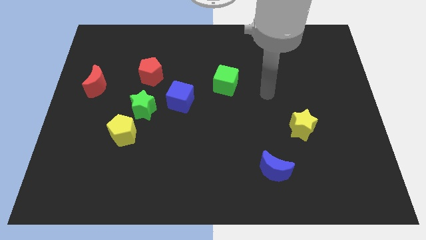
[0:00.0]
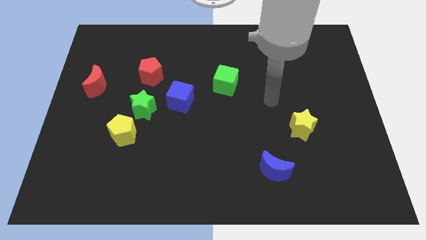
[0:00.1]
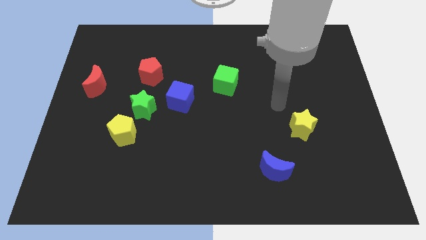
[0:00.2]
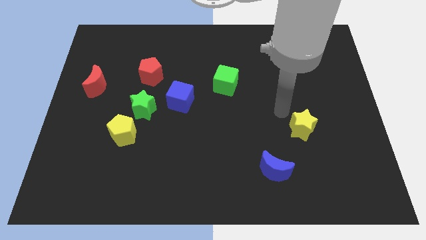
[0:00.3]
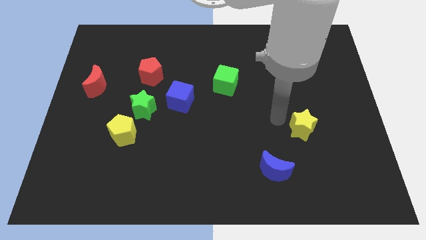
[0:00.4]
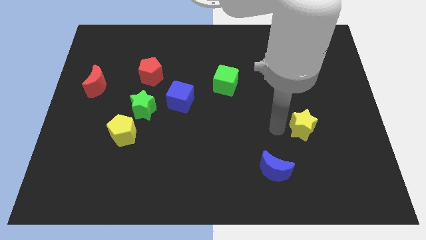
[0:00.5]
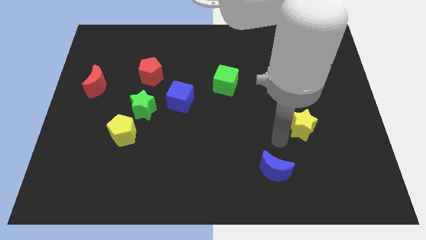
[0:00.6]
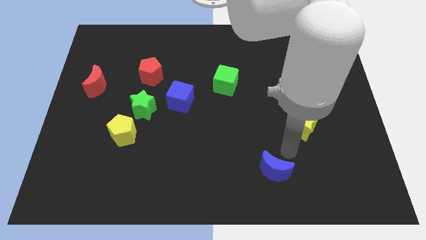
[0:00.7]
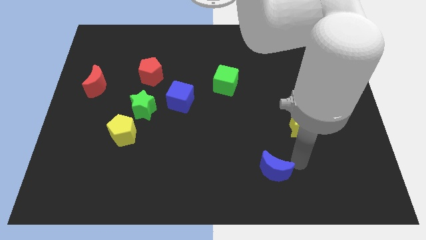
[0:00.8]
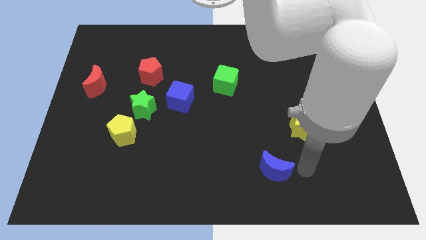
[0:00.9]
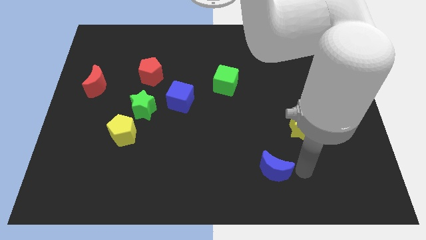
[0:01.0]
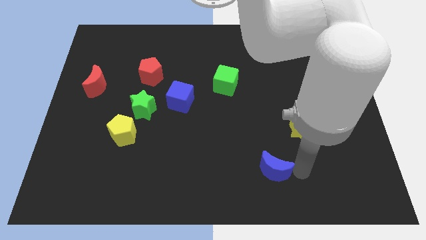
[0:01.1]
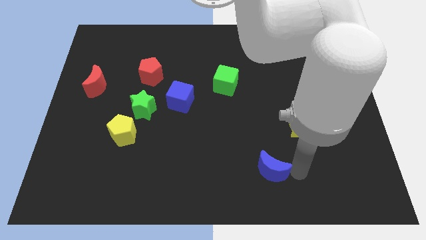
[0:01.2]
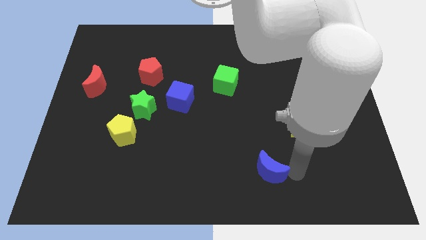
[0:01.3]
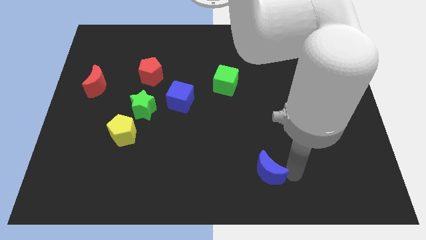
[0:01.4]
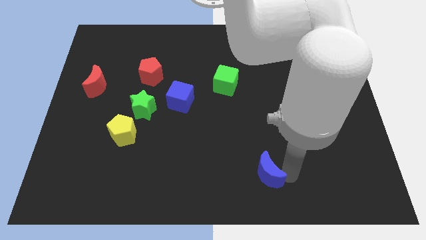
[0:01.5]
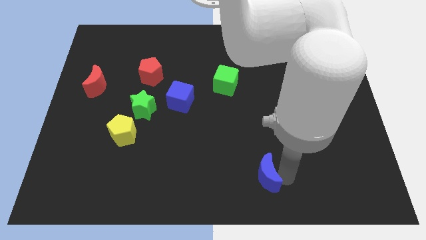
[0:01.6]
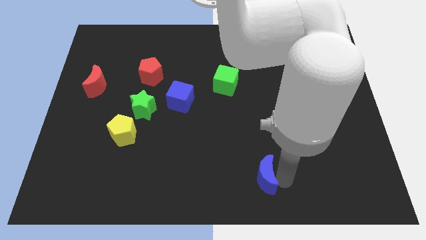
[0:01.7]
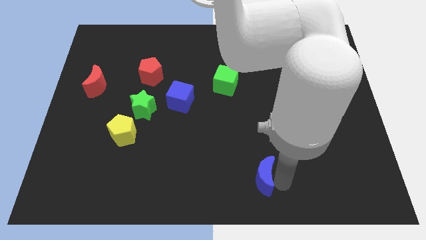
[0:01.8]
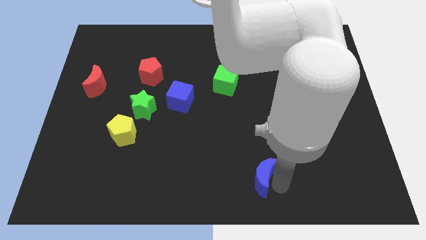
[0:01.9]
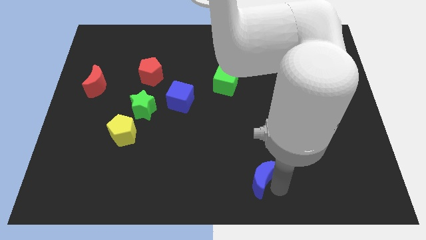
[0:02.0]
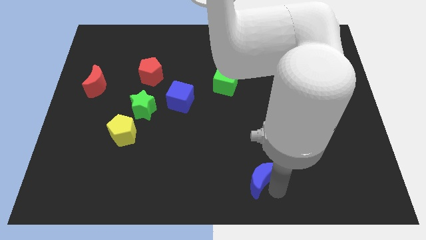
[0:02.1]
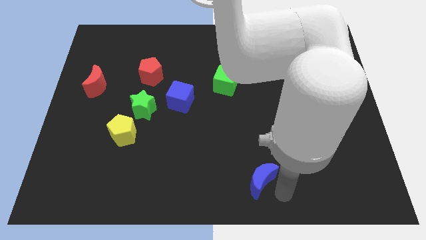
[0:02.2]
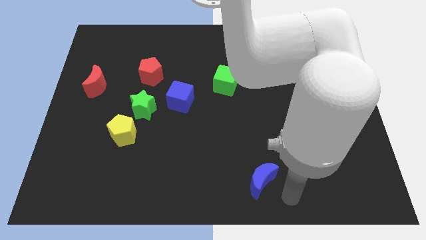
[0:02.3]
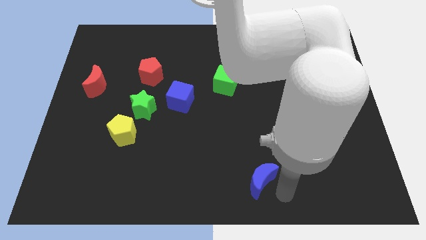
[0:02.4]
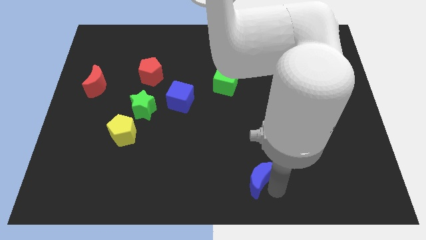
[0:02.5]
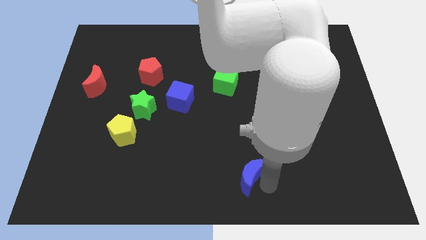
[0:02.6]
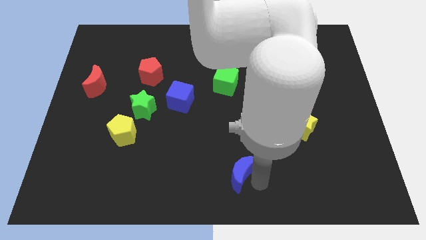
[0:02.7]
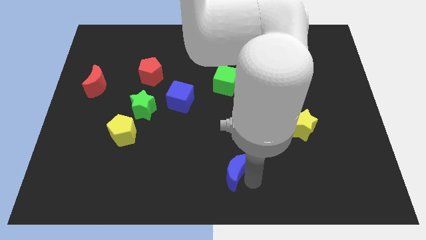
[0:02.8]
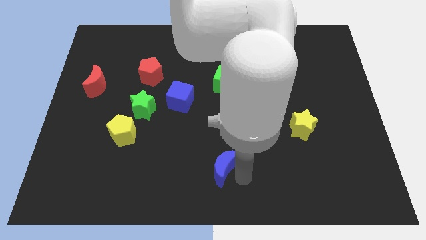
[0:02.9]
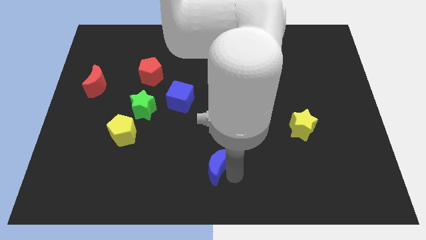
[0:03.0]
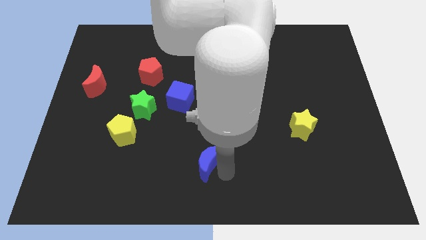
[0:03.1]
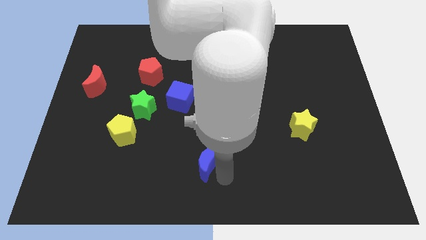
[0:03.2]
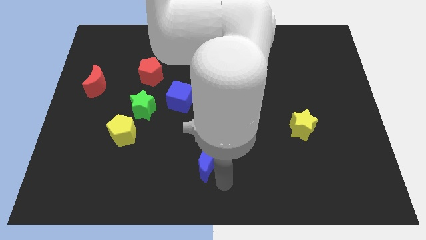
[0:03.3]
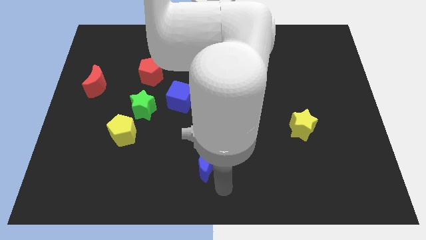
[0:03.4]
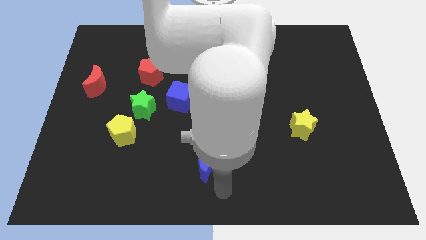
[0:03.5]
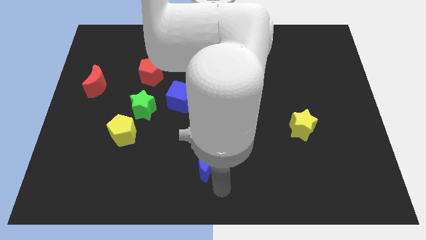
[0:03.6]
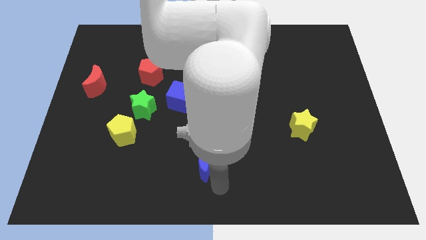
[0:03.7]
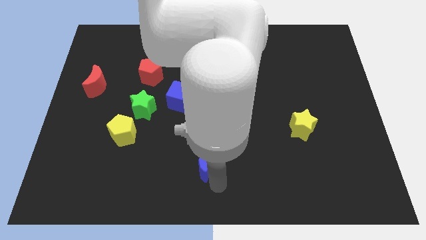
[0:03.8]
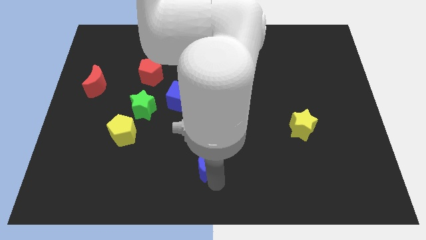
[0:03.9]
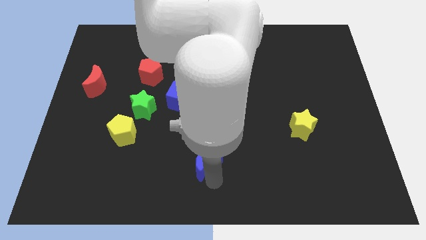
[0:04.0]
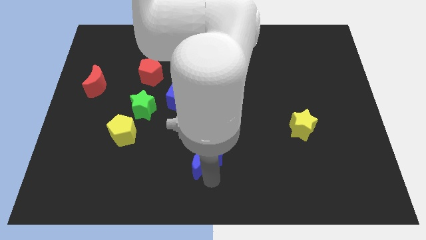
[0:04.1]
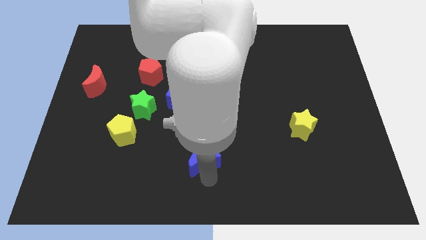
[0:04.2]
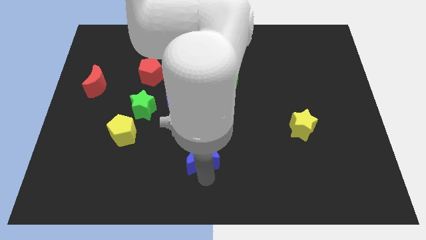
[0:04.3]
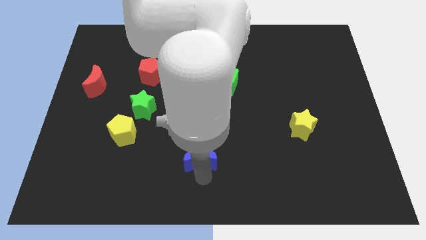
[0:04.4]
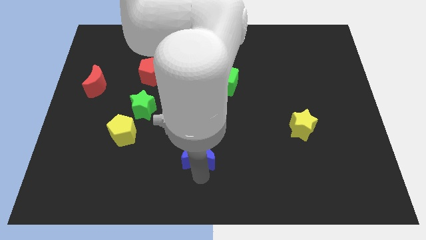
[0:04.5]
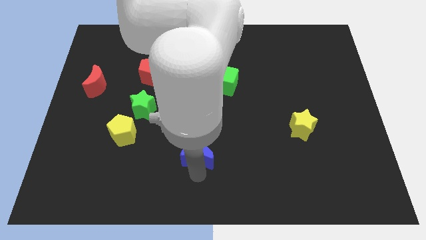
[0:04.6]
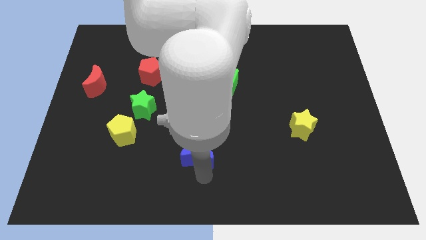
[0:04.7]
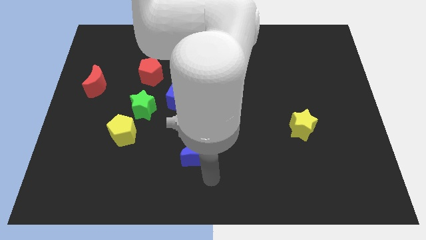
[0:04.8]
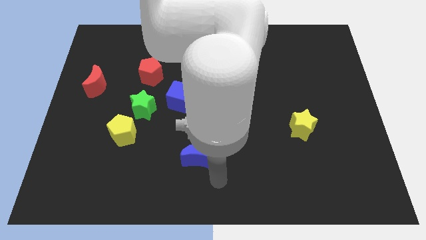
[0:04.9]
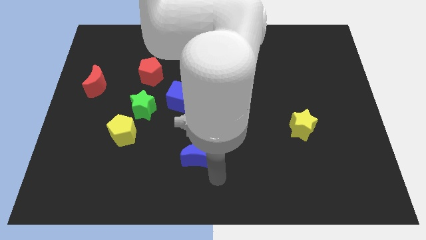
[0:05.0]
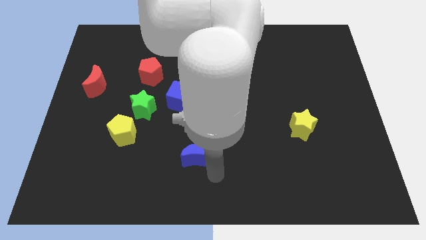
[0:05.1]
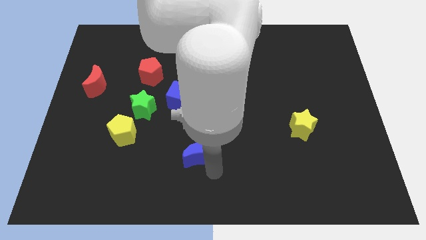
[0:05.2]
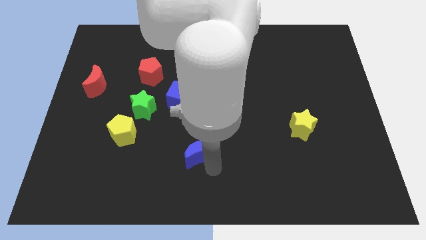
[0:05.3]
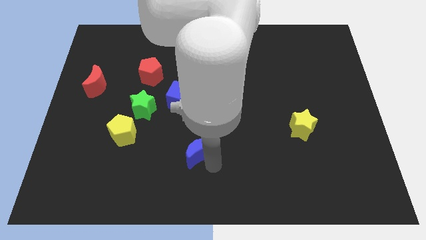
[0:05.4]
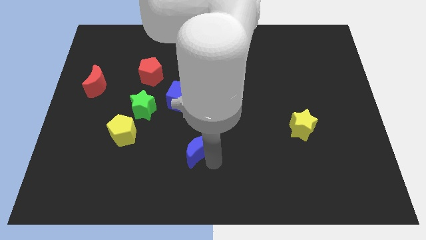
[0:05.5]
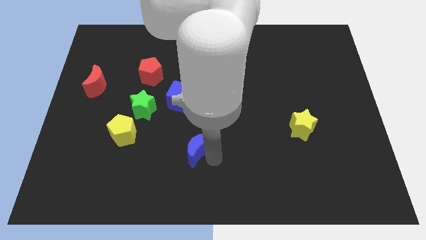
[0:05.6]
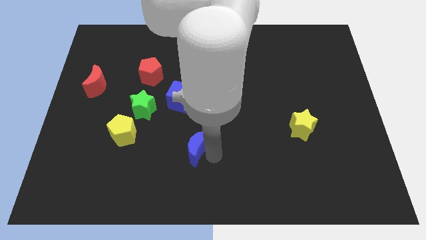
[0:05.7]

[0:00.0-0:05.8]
move the blue moon below the blue cube

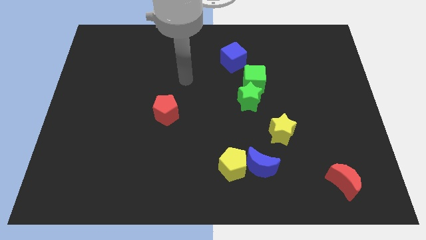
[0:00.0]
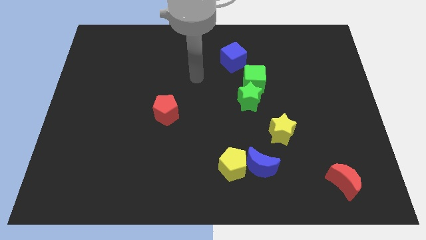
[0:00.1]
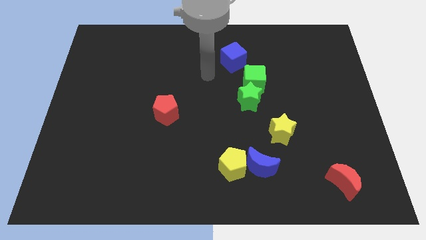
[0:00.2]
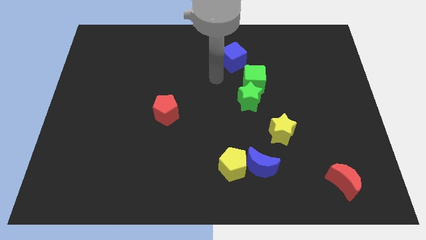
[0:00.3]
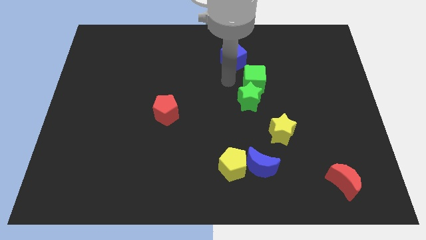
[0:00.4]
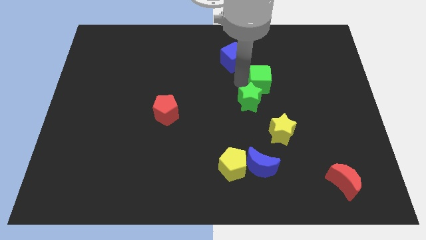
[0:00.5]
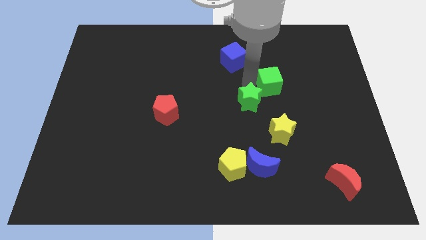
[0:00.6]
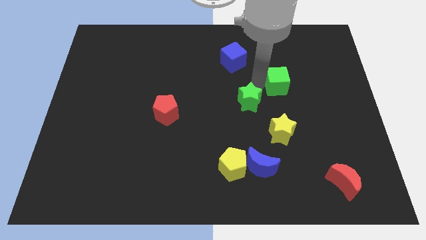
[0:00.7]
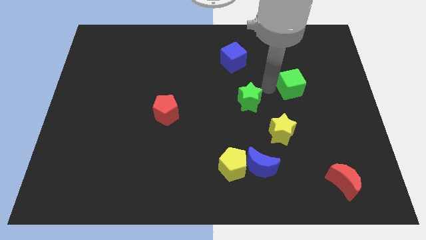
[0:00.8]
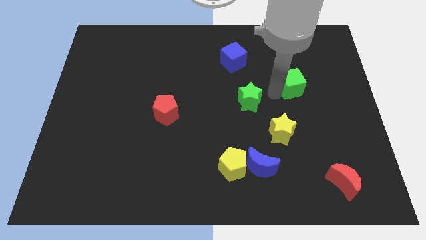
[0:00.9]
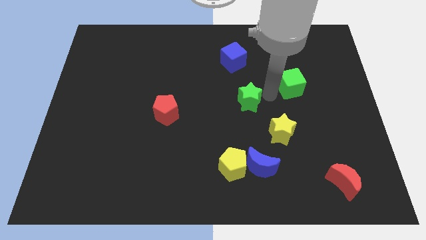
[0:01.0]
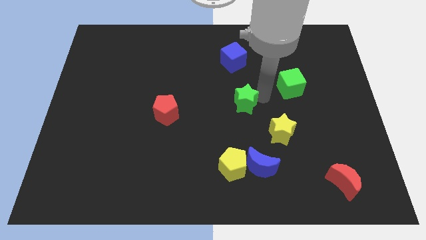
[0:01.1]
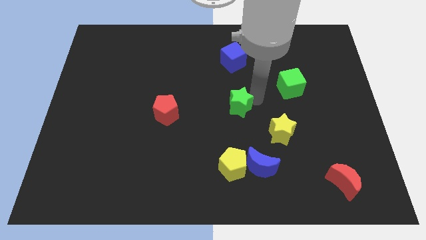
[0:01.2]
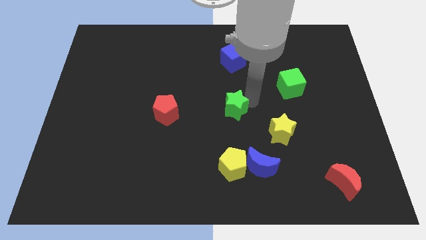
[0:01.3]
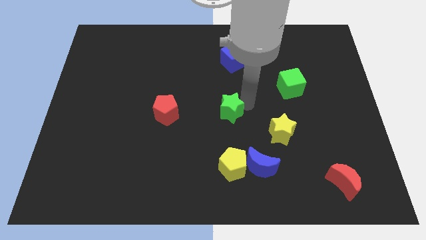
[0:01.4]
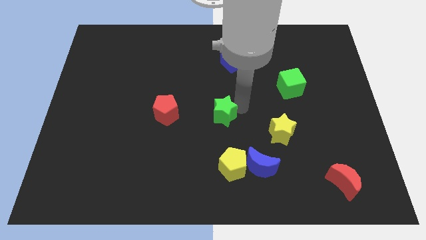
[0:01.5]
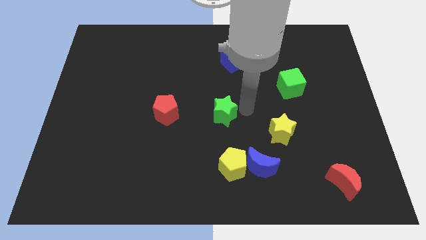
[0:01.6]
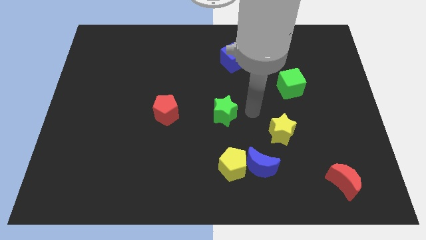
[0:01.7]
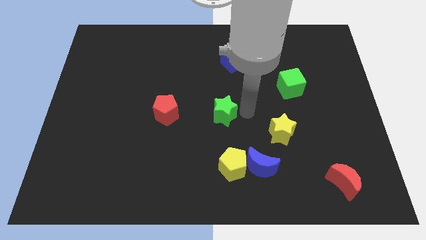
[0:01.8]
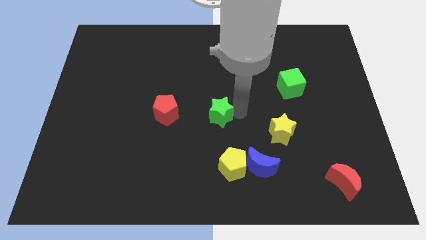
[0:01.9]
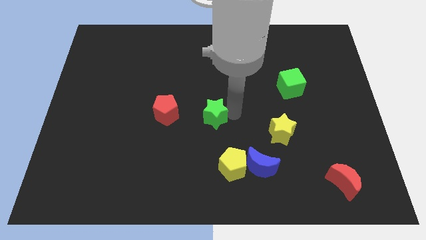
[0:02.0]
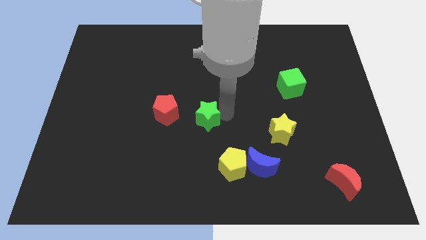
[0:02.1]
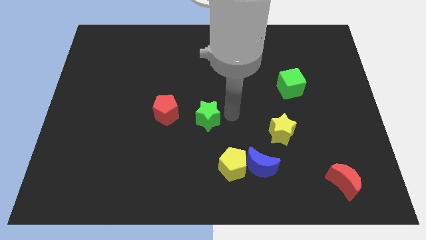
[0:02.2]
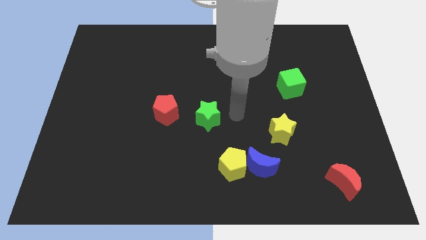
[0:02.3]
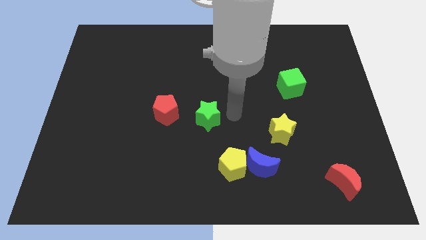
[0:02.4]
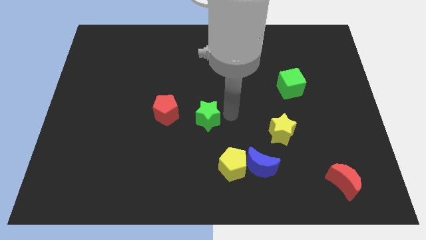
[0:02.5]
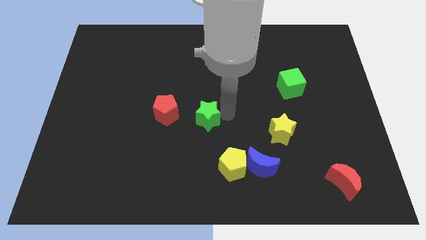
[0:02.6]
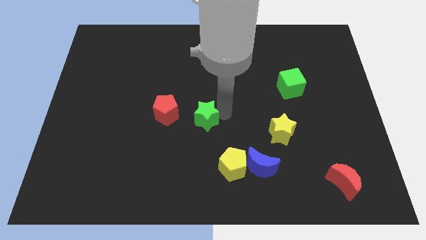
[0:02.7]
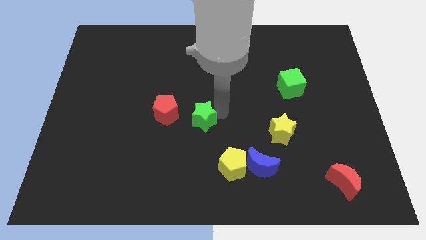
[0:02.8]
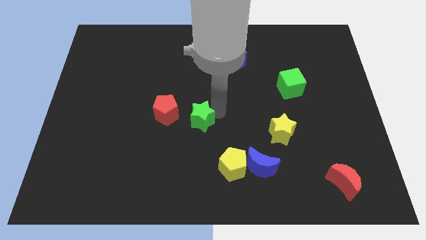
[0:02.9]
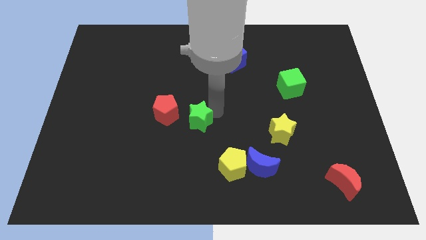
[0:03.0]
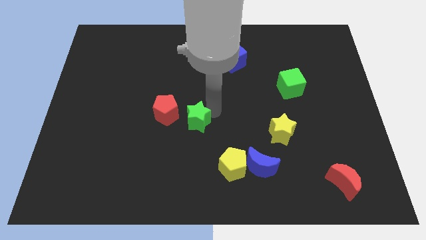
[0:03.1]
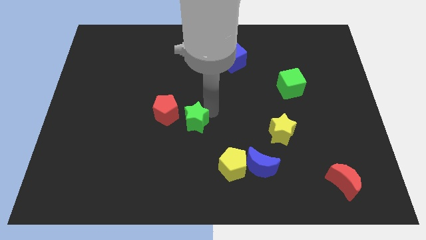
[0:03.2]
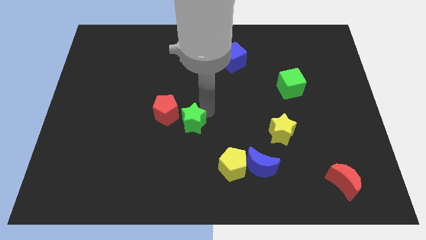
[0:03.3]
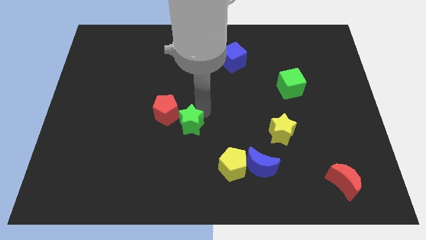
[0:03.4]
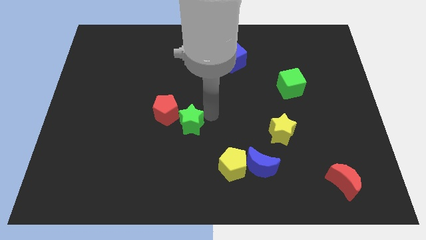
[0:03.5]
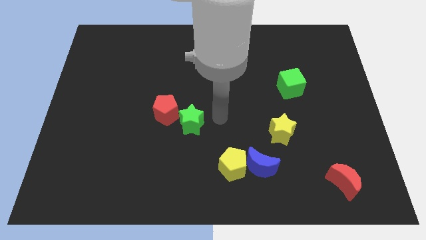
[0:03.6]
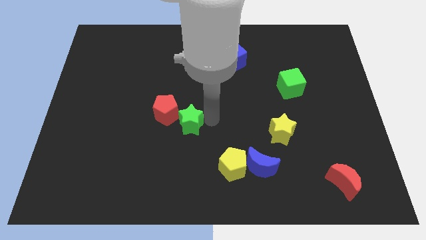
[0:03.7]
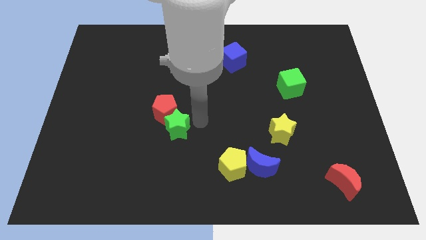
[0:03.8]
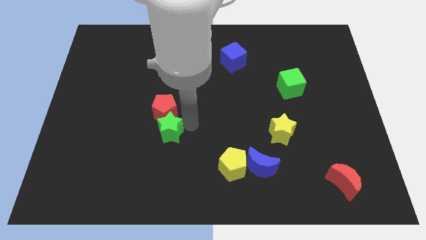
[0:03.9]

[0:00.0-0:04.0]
slide the green star to the bottom left of the red pentagon
